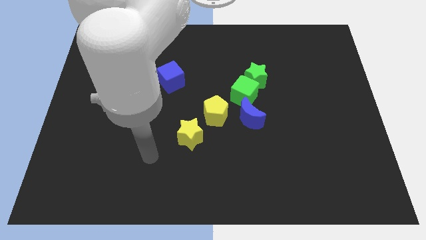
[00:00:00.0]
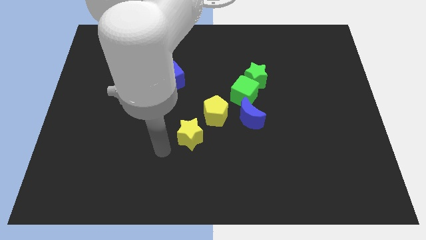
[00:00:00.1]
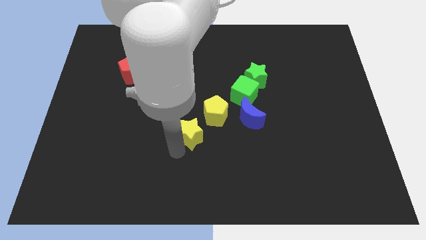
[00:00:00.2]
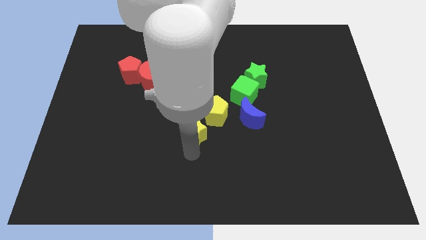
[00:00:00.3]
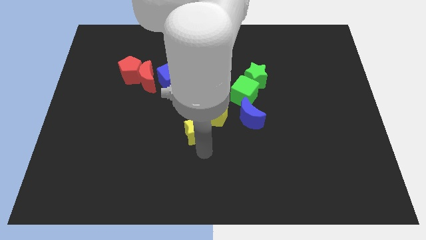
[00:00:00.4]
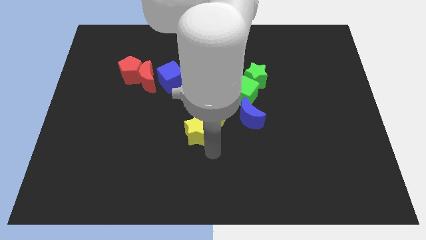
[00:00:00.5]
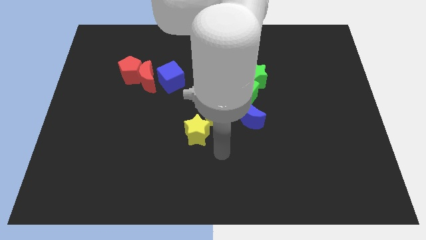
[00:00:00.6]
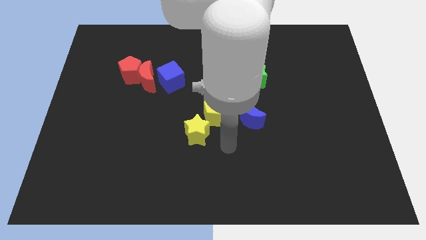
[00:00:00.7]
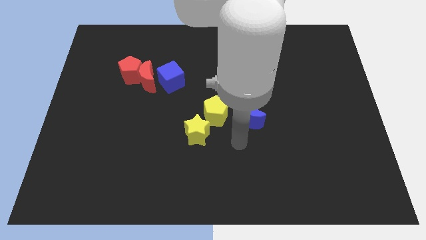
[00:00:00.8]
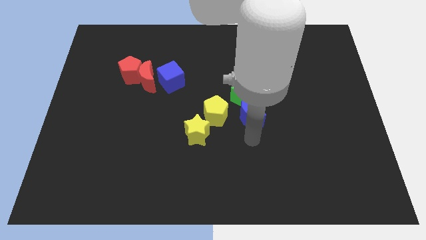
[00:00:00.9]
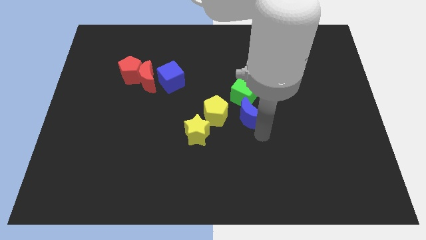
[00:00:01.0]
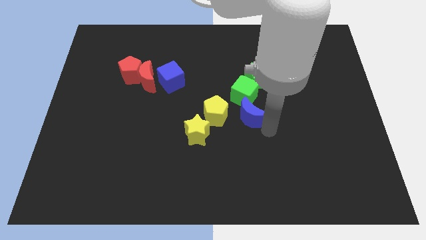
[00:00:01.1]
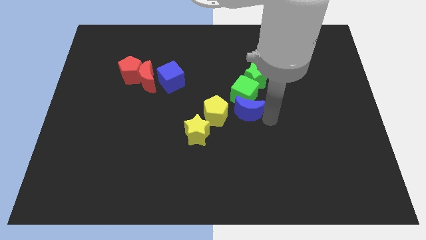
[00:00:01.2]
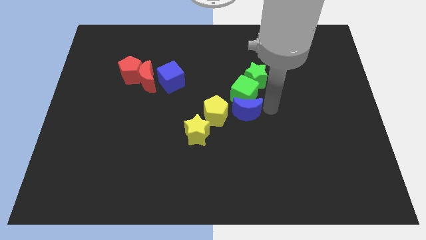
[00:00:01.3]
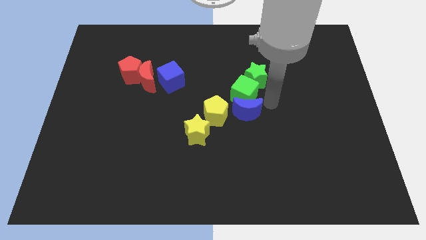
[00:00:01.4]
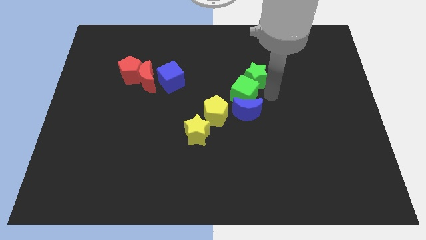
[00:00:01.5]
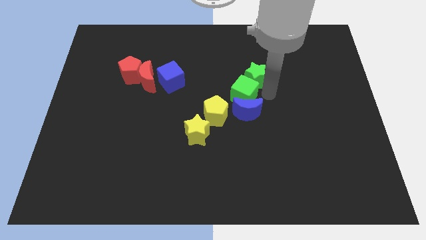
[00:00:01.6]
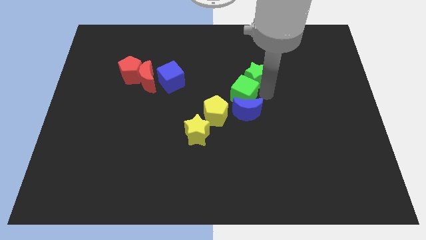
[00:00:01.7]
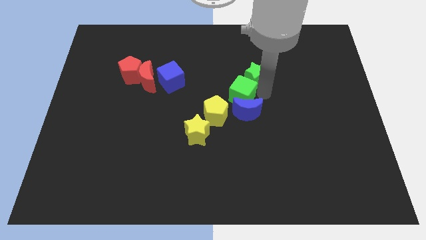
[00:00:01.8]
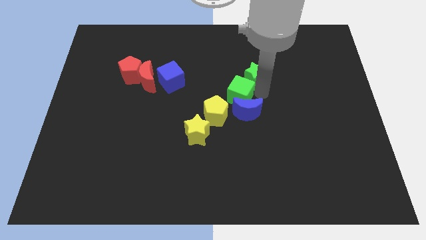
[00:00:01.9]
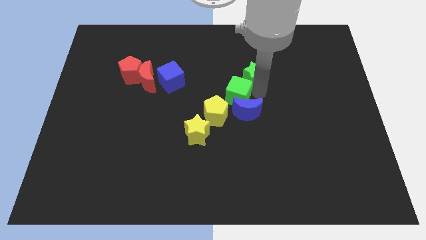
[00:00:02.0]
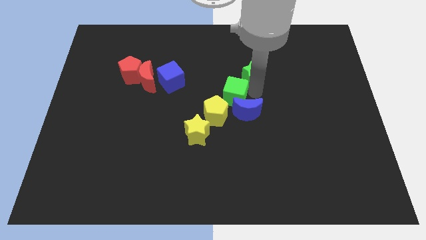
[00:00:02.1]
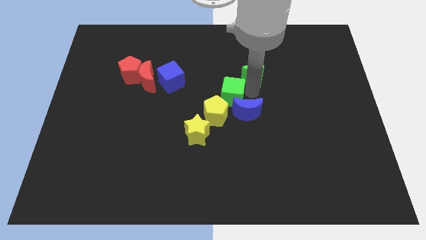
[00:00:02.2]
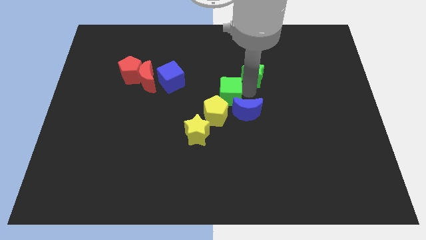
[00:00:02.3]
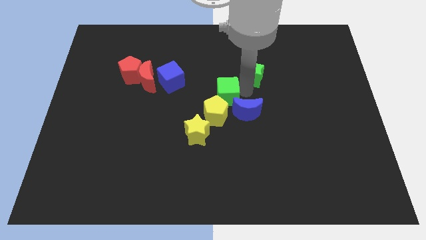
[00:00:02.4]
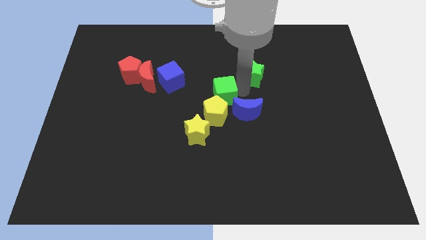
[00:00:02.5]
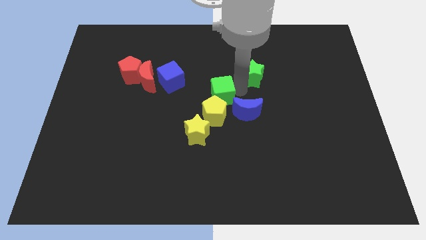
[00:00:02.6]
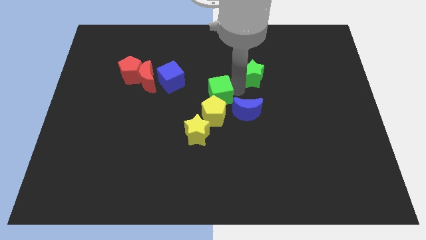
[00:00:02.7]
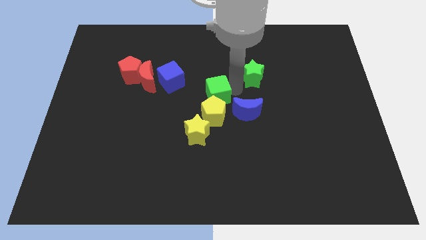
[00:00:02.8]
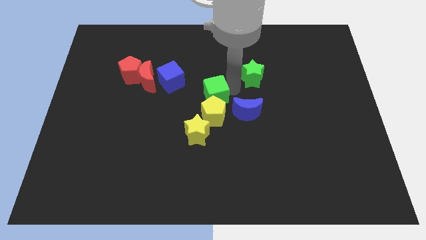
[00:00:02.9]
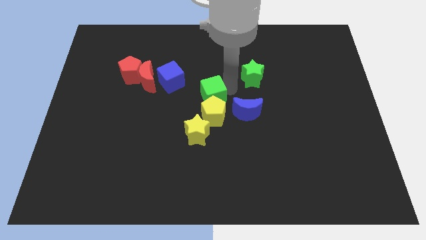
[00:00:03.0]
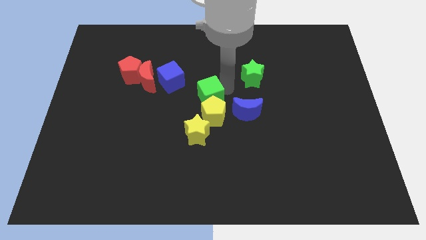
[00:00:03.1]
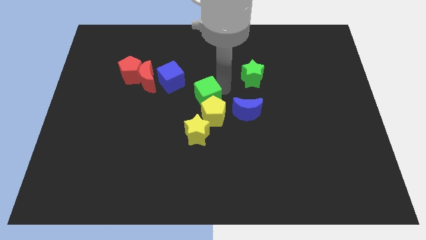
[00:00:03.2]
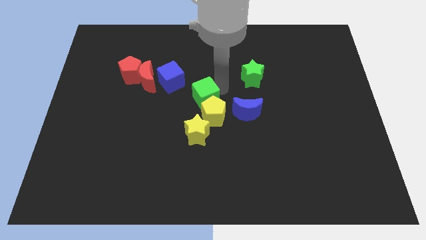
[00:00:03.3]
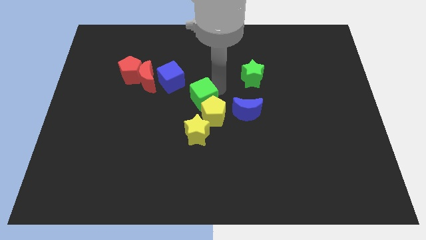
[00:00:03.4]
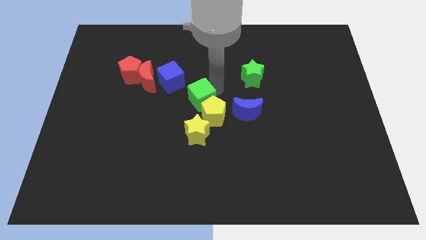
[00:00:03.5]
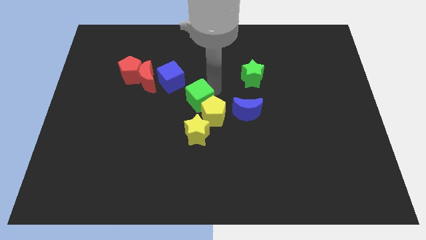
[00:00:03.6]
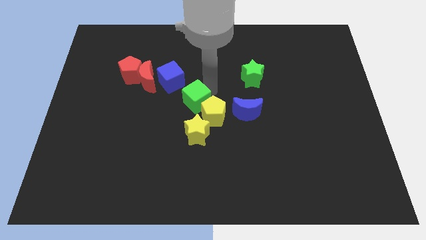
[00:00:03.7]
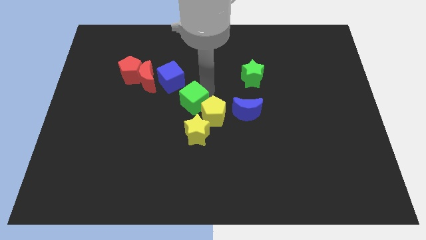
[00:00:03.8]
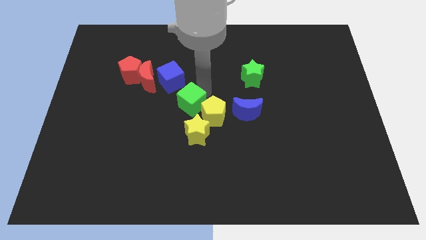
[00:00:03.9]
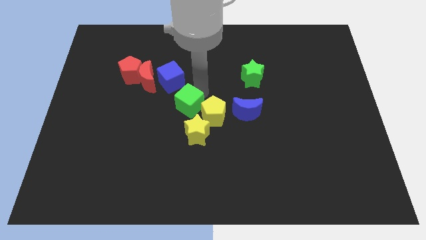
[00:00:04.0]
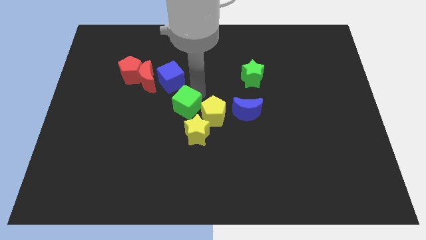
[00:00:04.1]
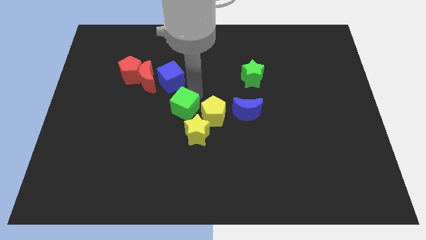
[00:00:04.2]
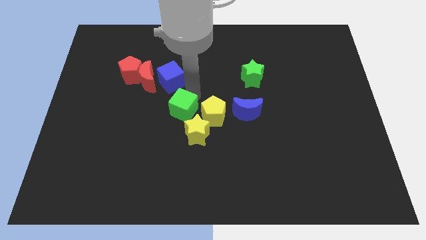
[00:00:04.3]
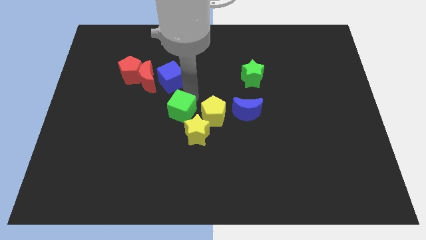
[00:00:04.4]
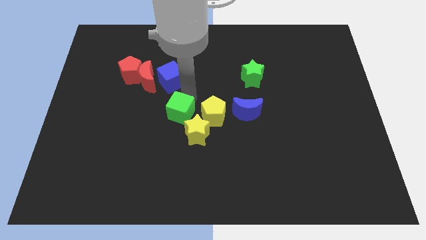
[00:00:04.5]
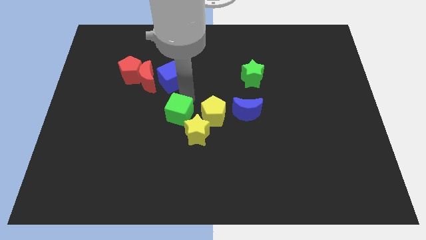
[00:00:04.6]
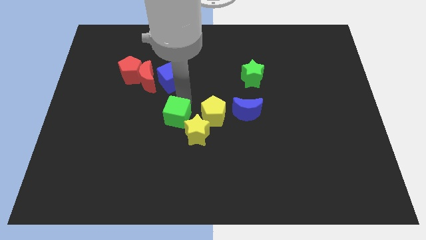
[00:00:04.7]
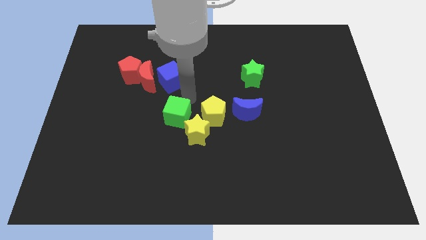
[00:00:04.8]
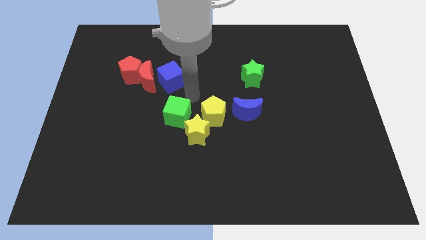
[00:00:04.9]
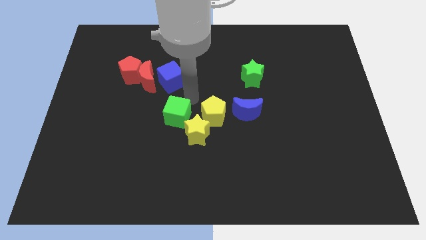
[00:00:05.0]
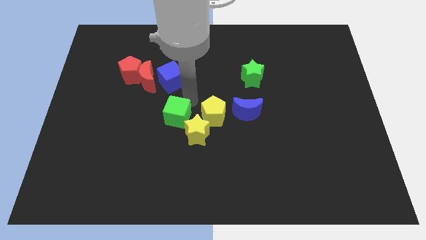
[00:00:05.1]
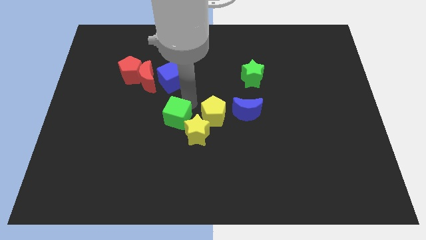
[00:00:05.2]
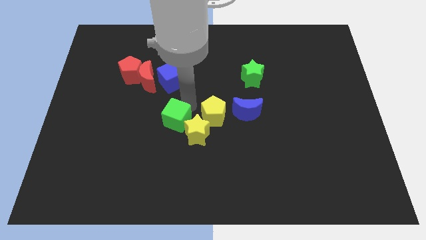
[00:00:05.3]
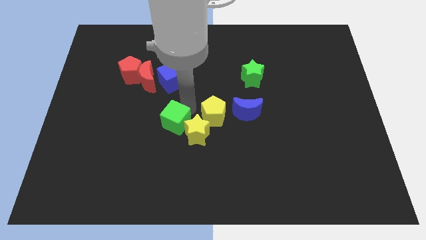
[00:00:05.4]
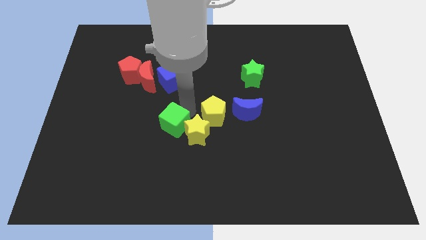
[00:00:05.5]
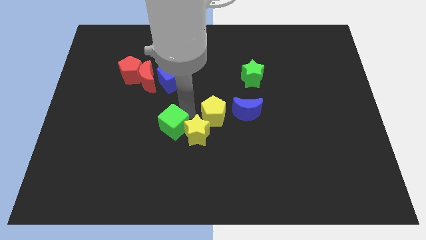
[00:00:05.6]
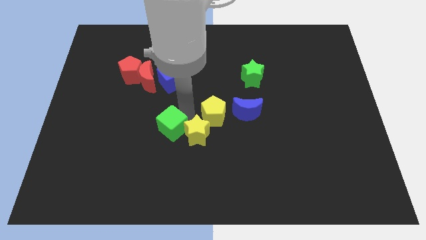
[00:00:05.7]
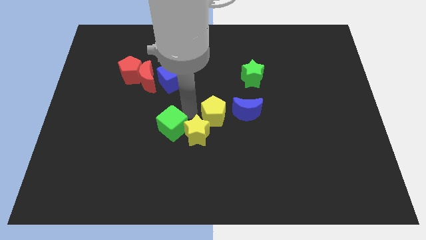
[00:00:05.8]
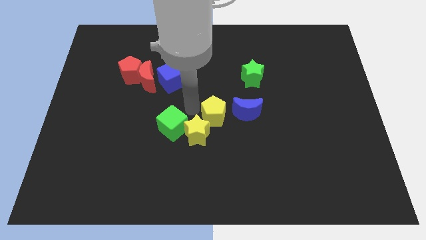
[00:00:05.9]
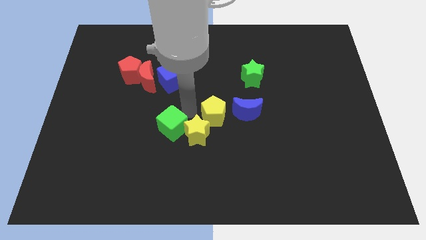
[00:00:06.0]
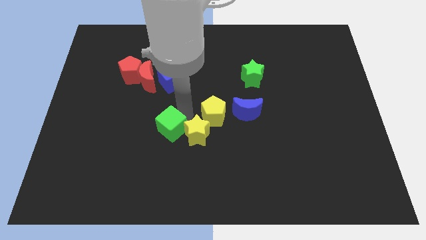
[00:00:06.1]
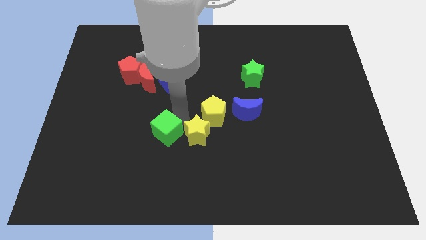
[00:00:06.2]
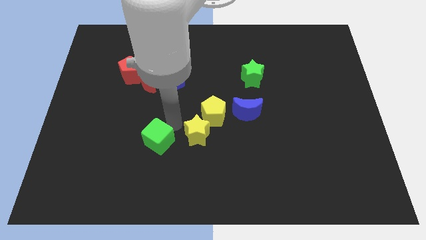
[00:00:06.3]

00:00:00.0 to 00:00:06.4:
move the green cube diagonally downwards and left

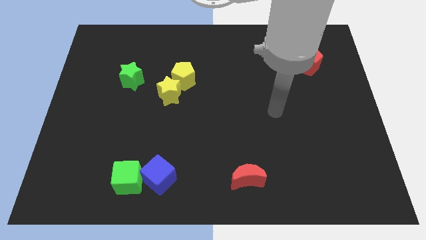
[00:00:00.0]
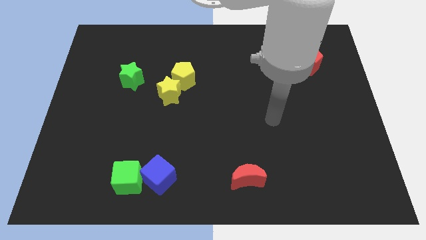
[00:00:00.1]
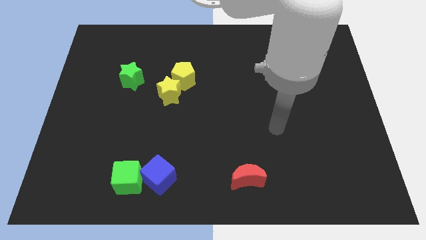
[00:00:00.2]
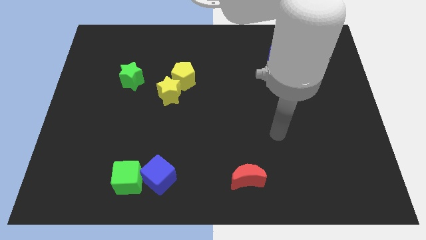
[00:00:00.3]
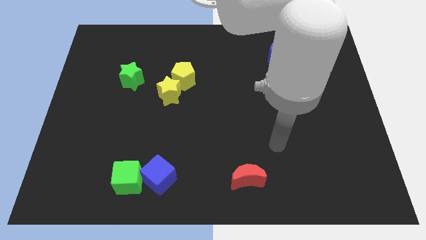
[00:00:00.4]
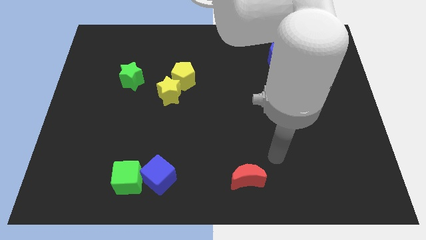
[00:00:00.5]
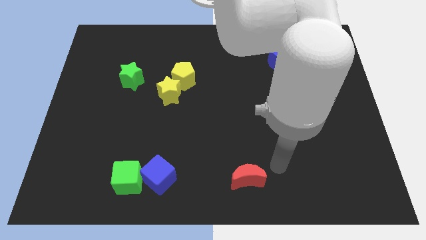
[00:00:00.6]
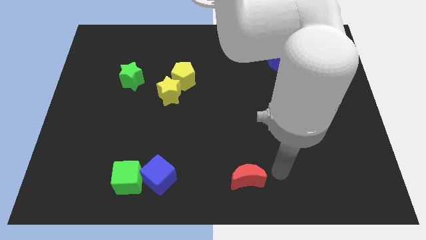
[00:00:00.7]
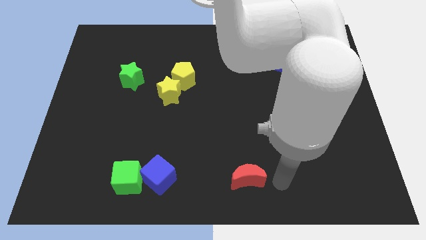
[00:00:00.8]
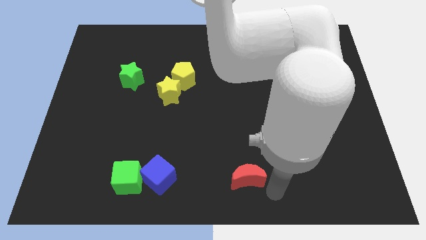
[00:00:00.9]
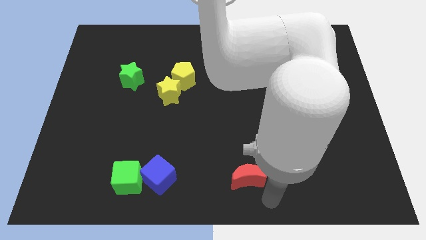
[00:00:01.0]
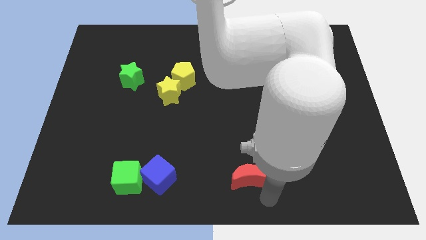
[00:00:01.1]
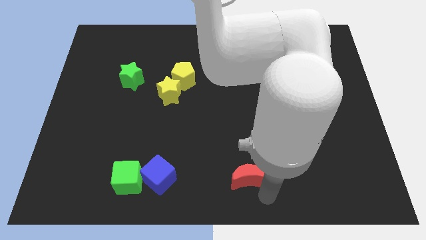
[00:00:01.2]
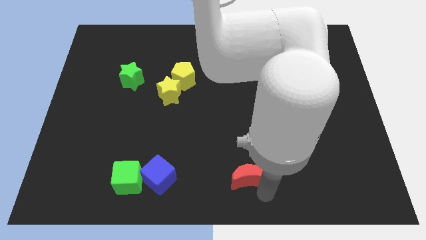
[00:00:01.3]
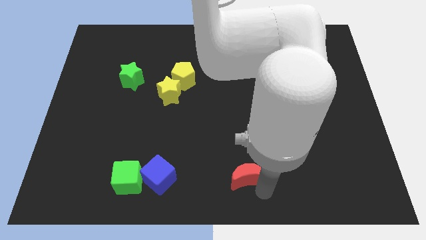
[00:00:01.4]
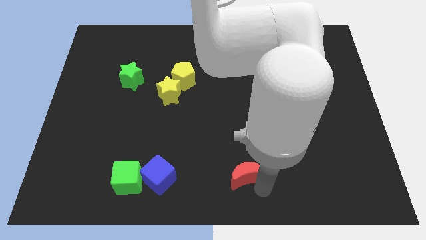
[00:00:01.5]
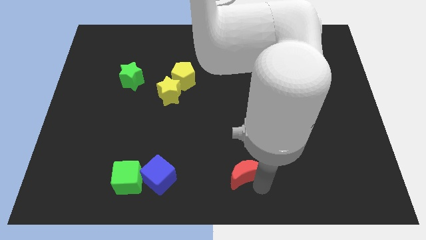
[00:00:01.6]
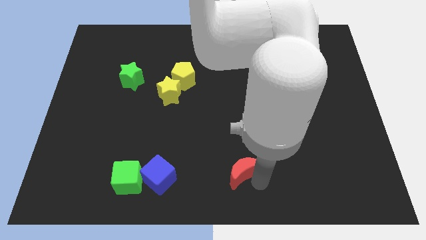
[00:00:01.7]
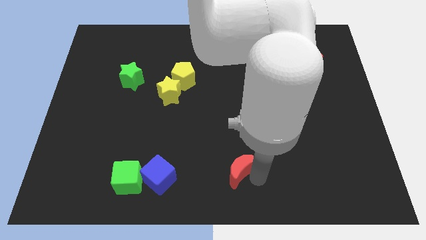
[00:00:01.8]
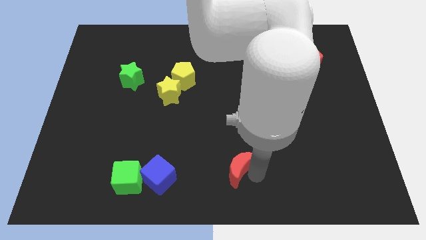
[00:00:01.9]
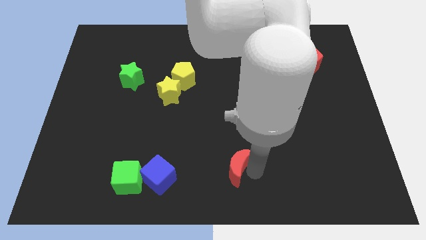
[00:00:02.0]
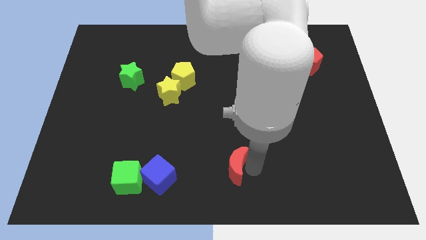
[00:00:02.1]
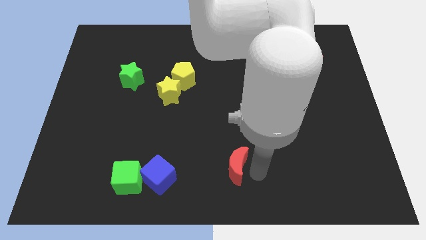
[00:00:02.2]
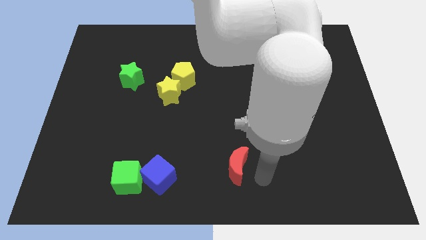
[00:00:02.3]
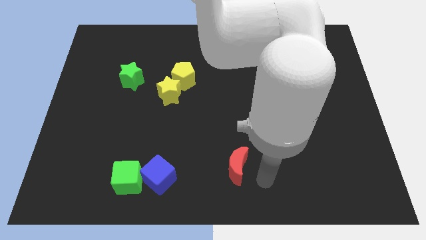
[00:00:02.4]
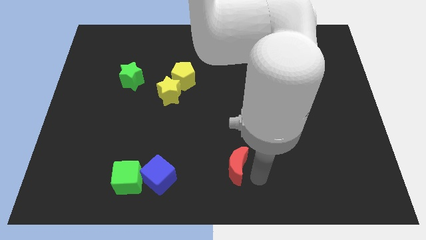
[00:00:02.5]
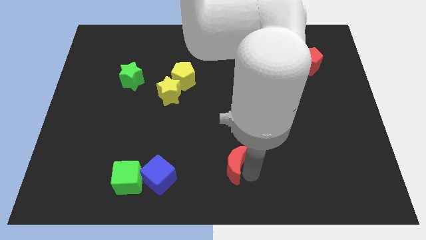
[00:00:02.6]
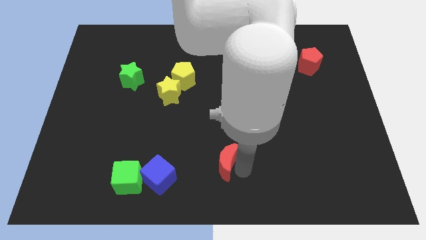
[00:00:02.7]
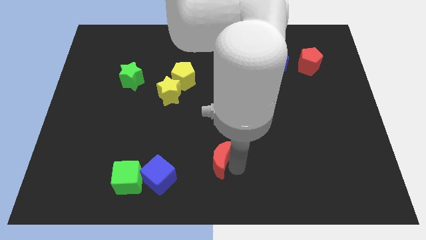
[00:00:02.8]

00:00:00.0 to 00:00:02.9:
slightly move the red moon upwards and to the left diagonally
